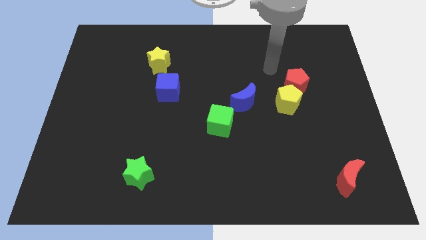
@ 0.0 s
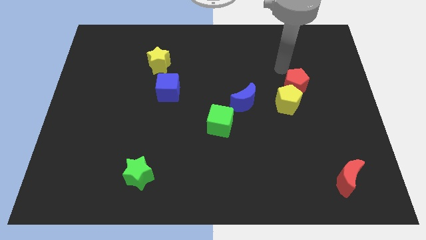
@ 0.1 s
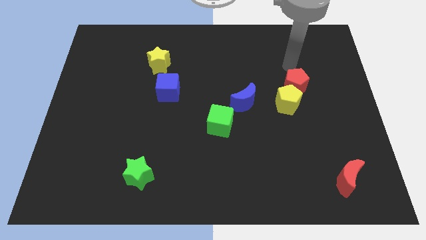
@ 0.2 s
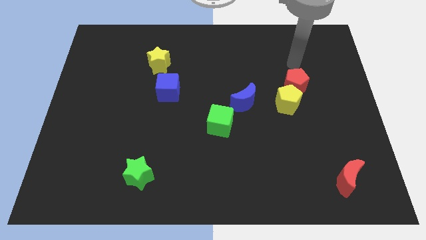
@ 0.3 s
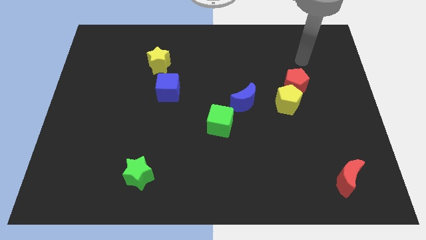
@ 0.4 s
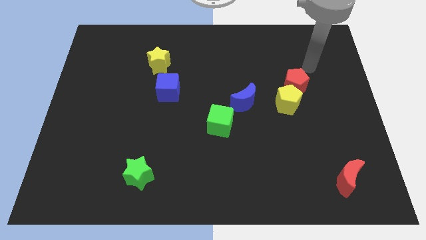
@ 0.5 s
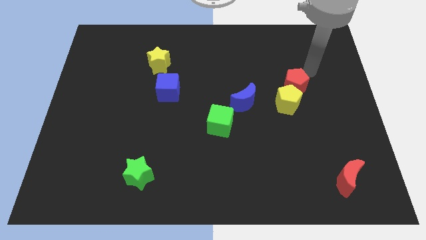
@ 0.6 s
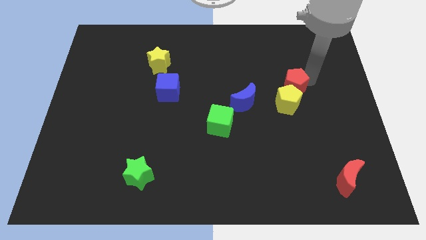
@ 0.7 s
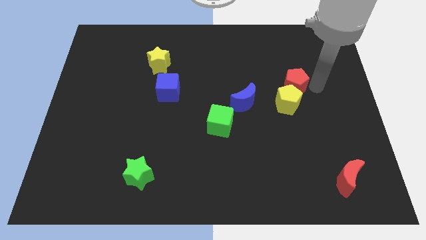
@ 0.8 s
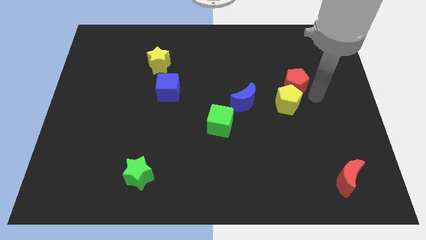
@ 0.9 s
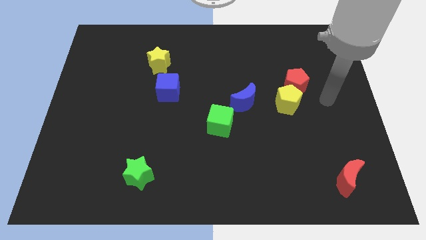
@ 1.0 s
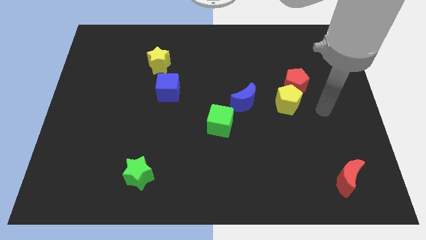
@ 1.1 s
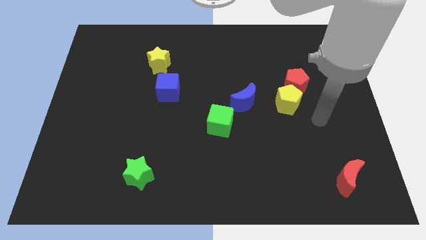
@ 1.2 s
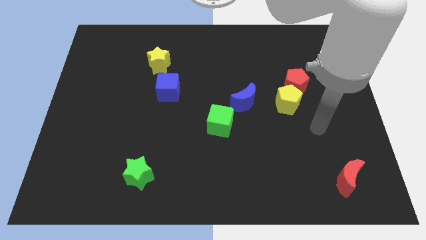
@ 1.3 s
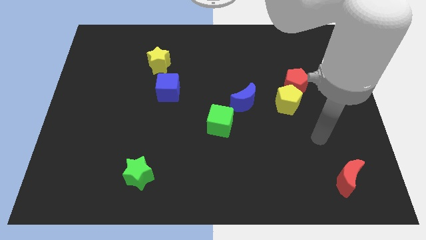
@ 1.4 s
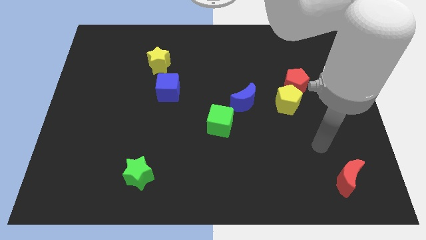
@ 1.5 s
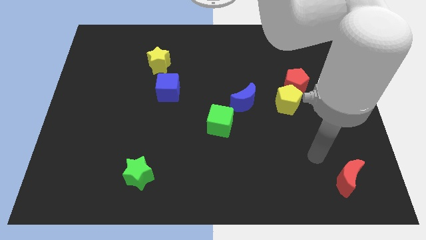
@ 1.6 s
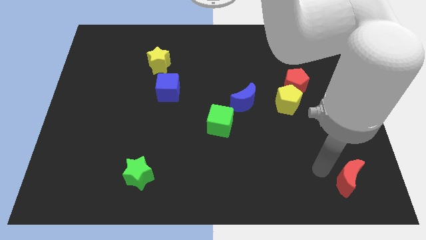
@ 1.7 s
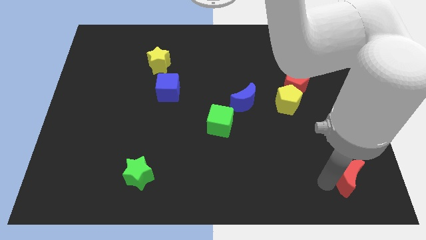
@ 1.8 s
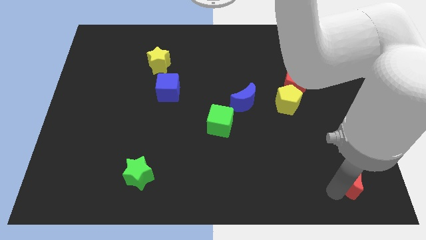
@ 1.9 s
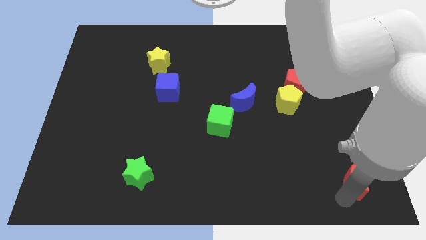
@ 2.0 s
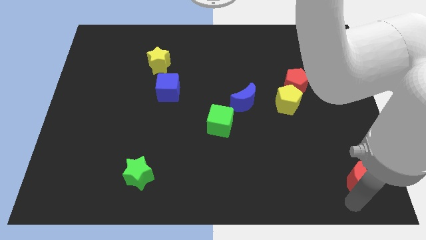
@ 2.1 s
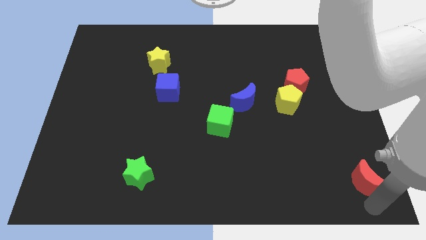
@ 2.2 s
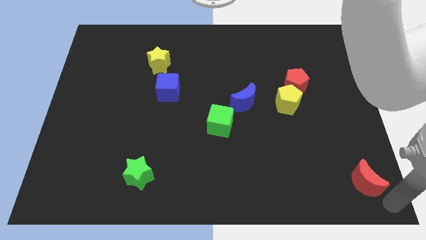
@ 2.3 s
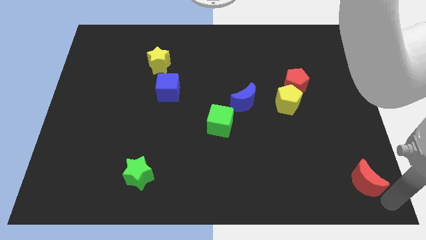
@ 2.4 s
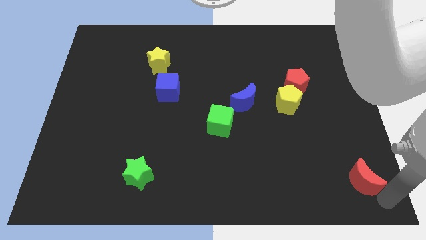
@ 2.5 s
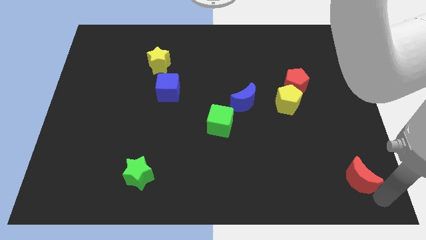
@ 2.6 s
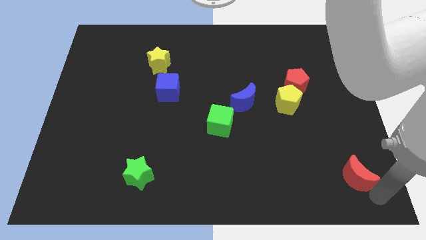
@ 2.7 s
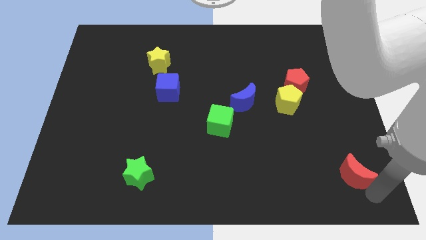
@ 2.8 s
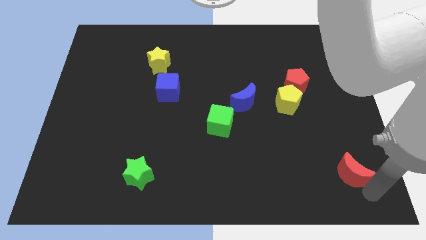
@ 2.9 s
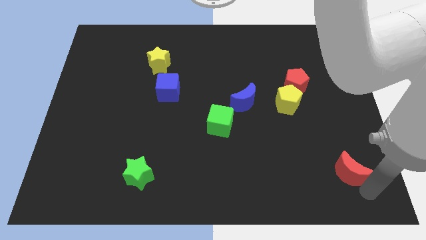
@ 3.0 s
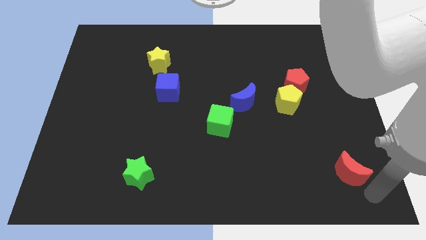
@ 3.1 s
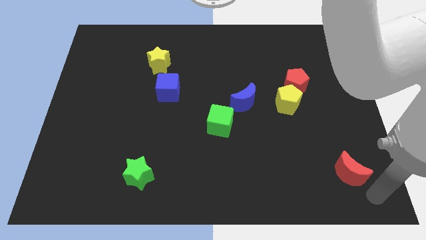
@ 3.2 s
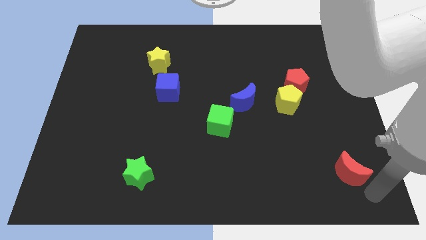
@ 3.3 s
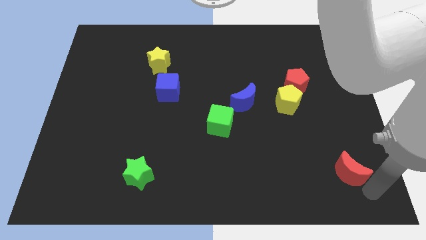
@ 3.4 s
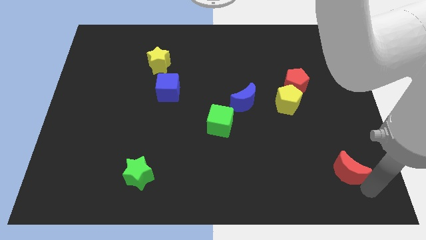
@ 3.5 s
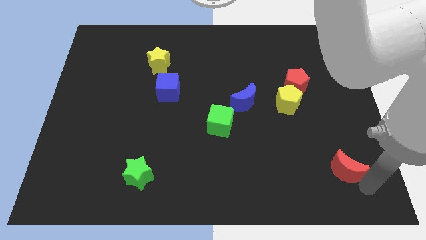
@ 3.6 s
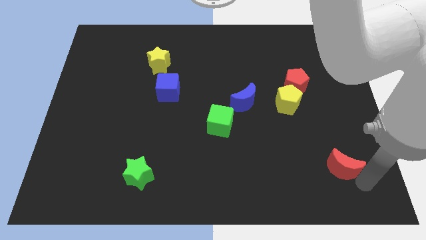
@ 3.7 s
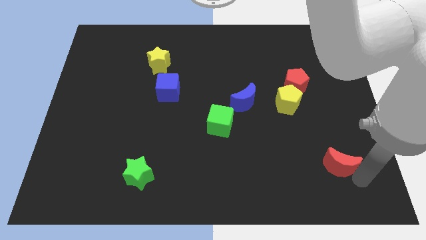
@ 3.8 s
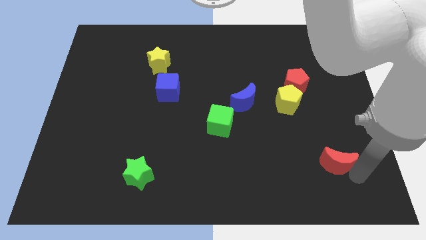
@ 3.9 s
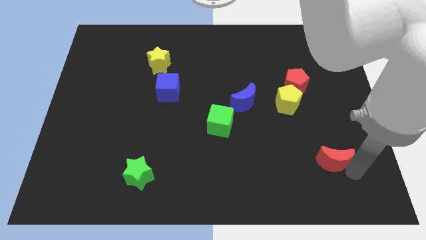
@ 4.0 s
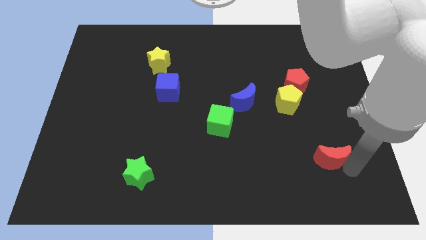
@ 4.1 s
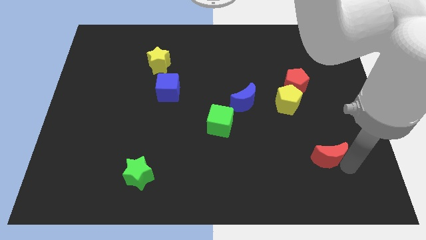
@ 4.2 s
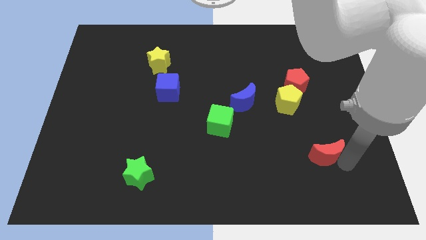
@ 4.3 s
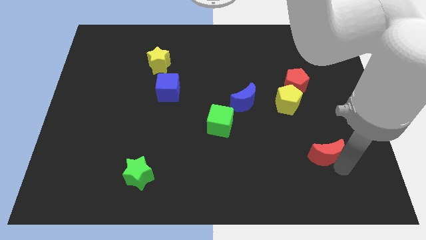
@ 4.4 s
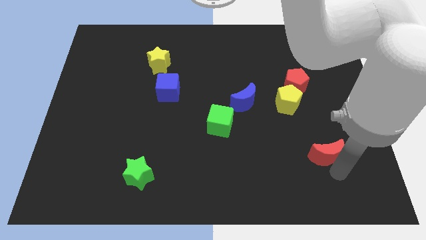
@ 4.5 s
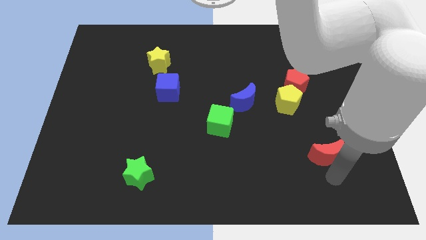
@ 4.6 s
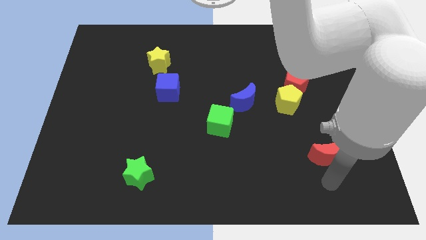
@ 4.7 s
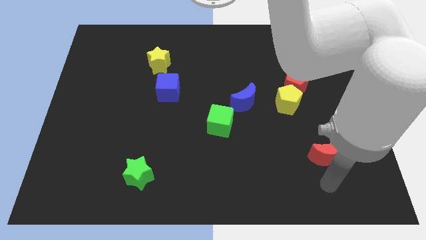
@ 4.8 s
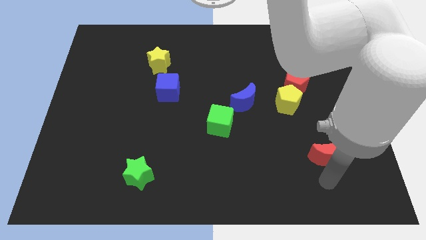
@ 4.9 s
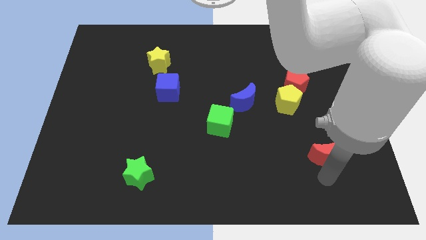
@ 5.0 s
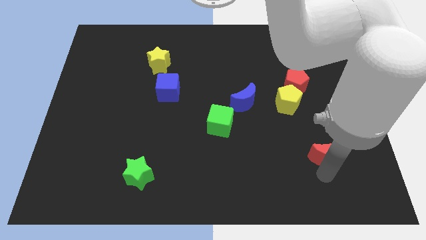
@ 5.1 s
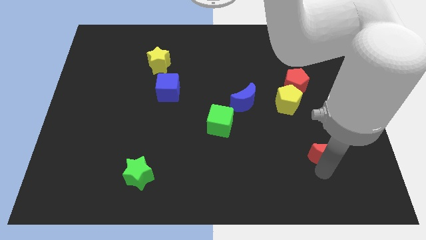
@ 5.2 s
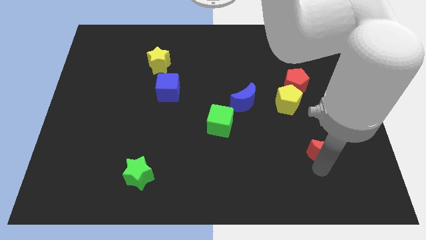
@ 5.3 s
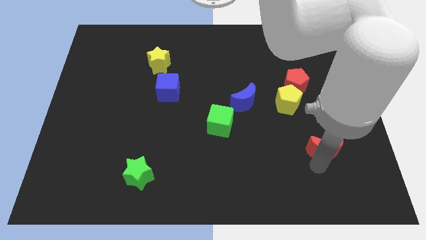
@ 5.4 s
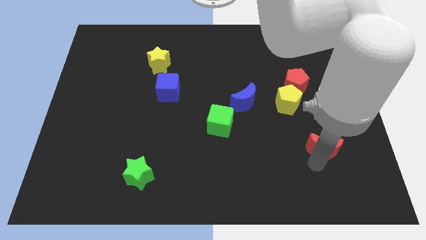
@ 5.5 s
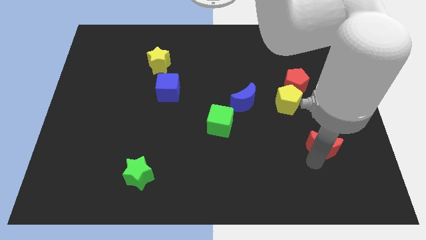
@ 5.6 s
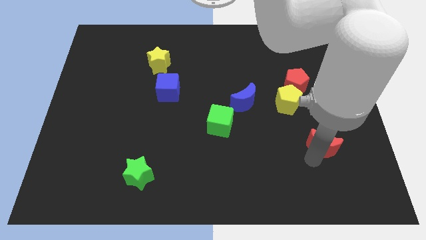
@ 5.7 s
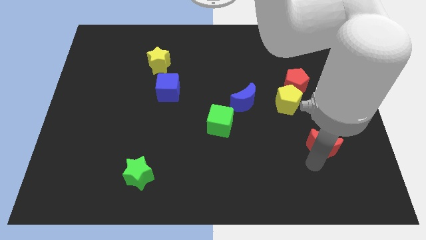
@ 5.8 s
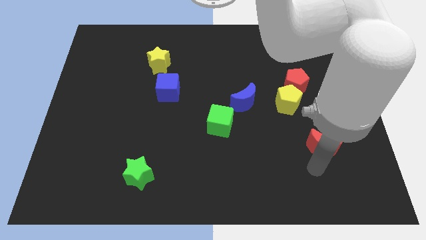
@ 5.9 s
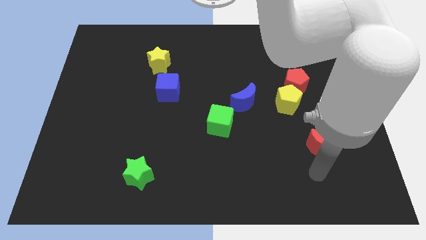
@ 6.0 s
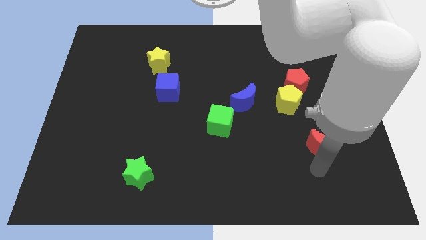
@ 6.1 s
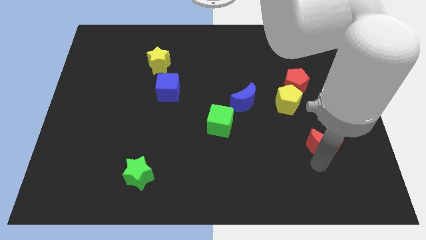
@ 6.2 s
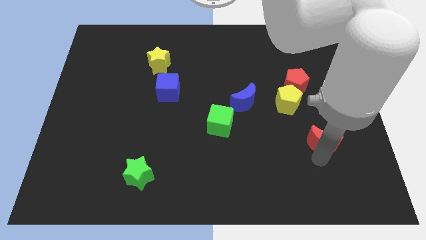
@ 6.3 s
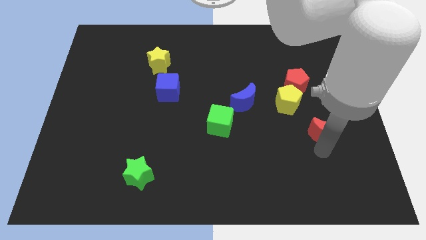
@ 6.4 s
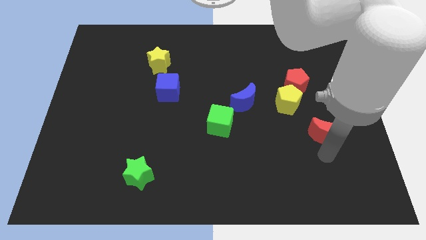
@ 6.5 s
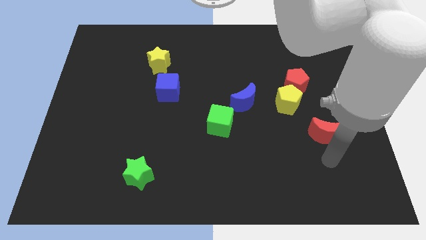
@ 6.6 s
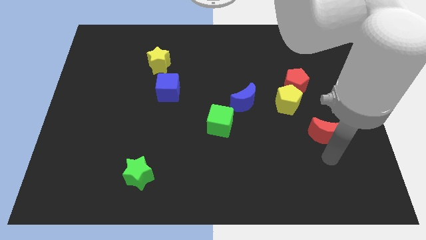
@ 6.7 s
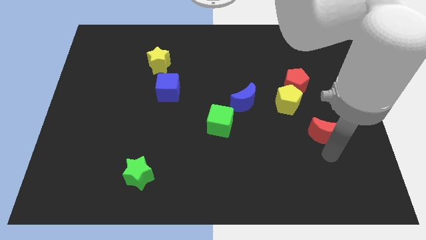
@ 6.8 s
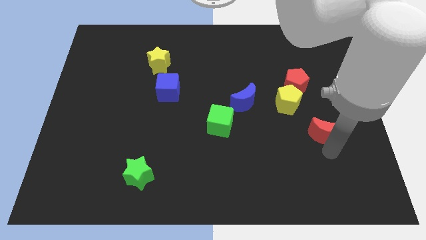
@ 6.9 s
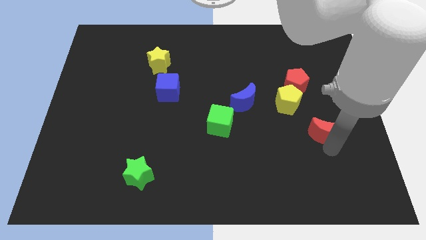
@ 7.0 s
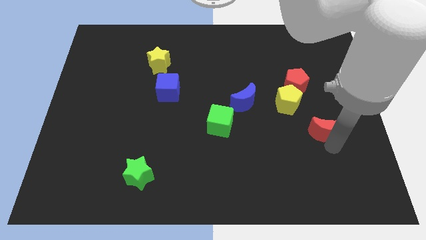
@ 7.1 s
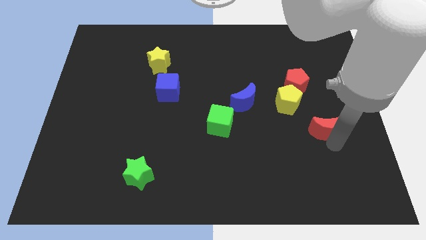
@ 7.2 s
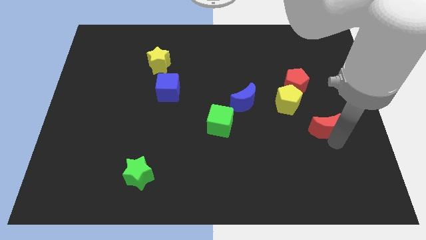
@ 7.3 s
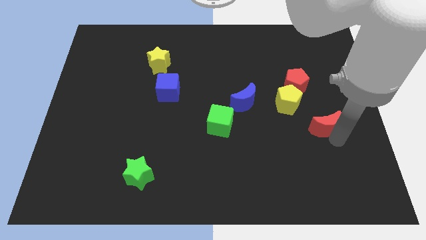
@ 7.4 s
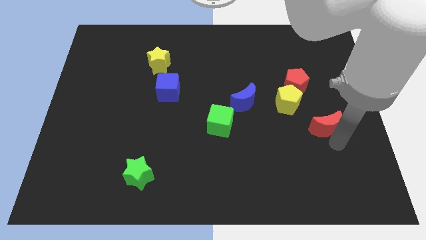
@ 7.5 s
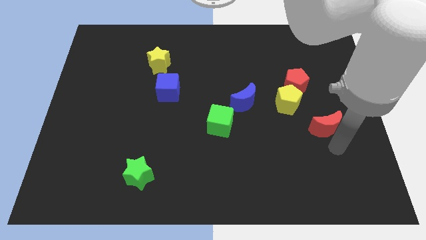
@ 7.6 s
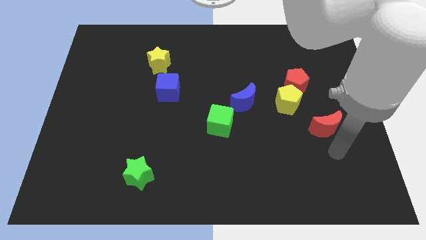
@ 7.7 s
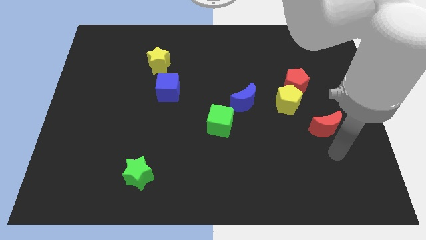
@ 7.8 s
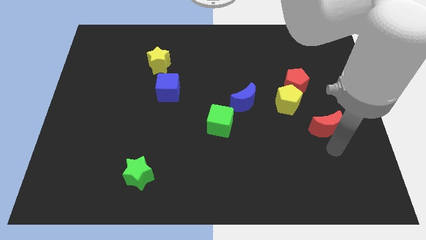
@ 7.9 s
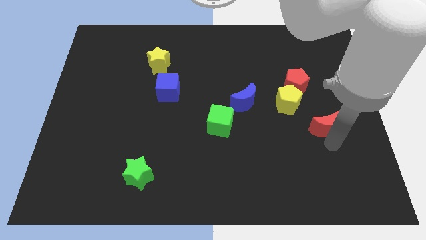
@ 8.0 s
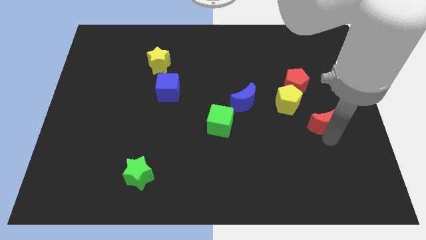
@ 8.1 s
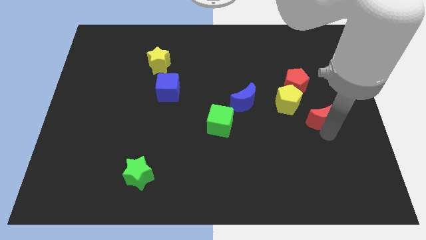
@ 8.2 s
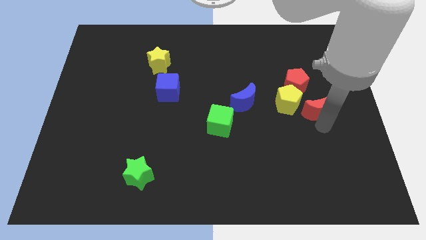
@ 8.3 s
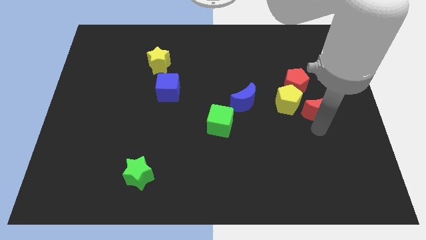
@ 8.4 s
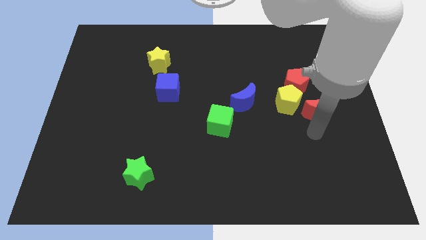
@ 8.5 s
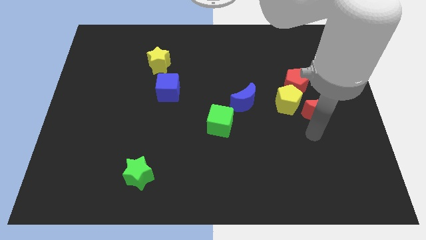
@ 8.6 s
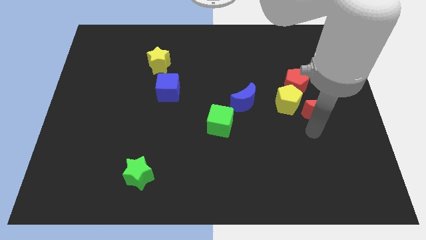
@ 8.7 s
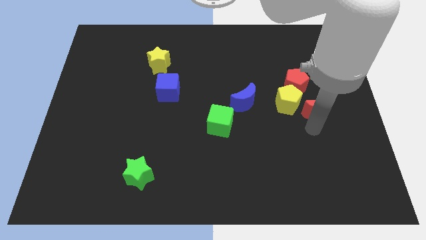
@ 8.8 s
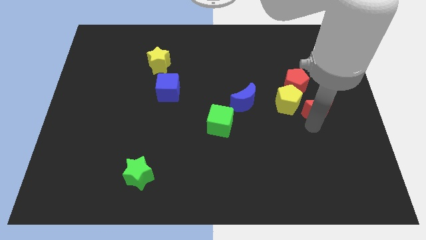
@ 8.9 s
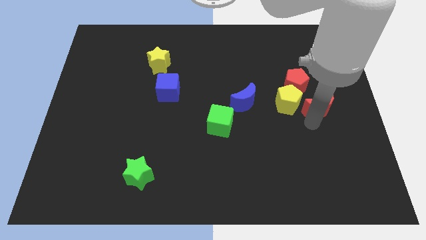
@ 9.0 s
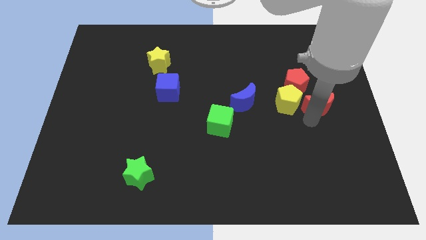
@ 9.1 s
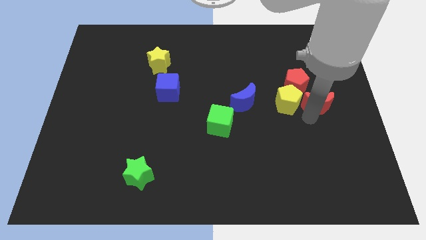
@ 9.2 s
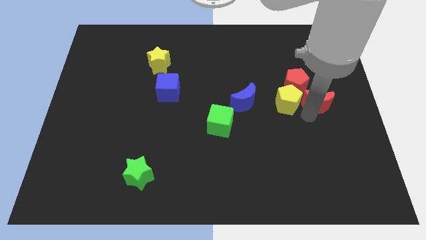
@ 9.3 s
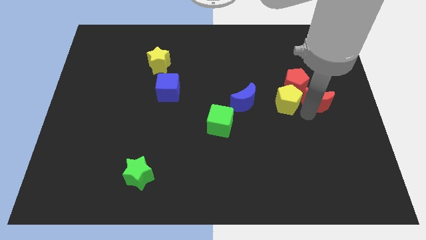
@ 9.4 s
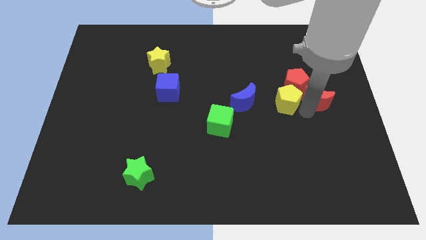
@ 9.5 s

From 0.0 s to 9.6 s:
push the red moon upwards
